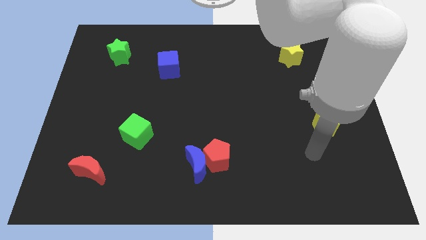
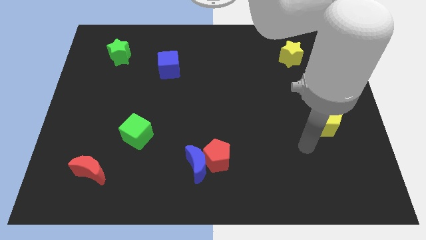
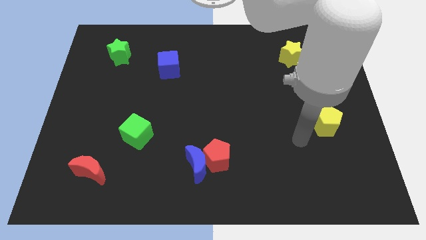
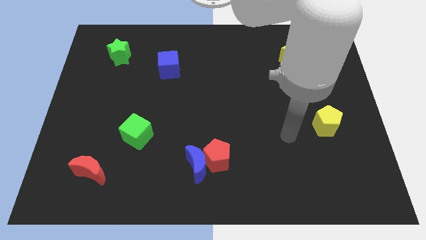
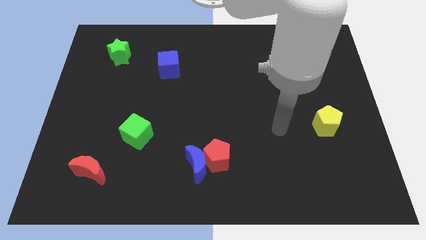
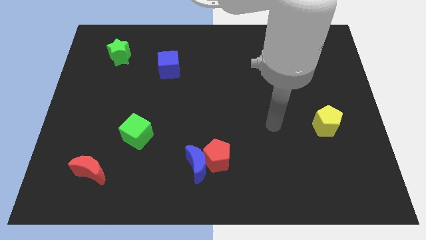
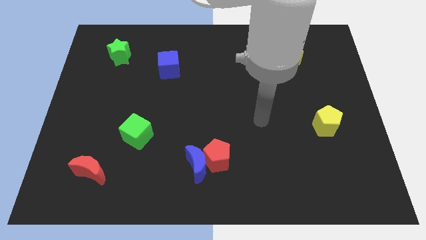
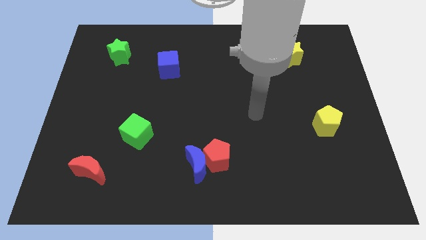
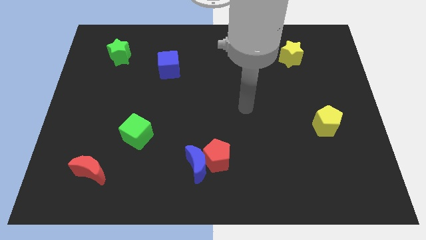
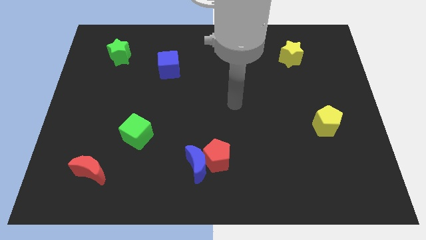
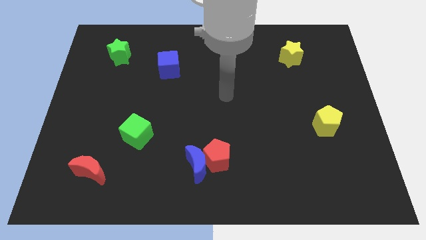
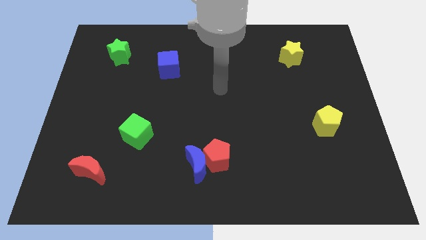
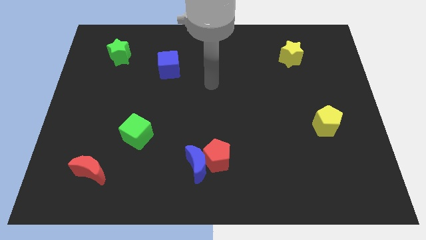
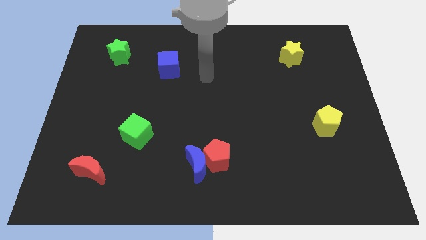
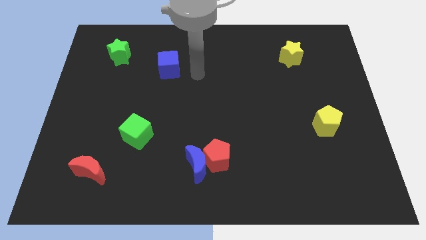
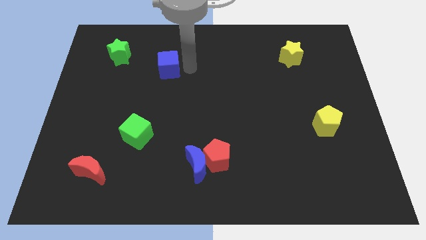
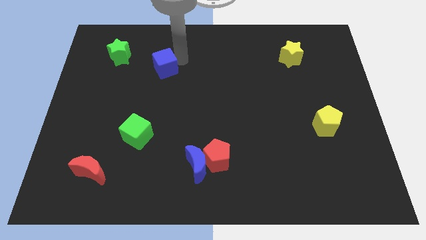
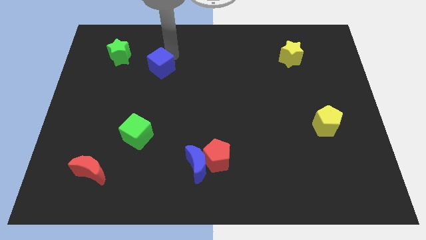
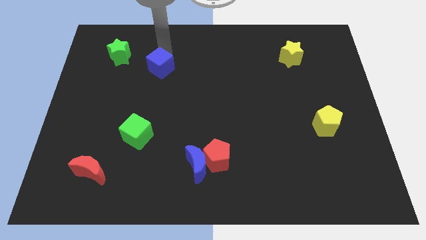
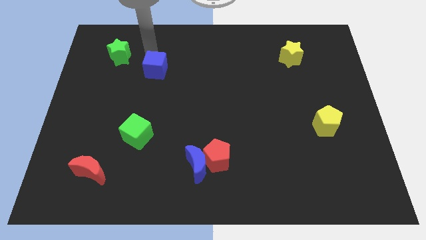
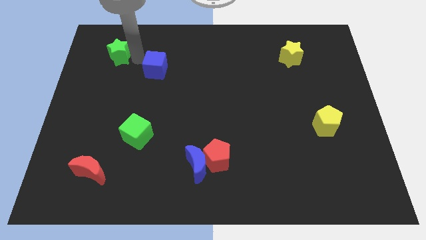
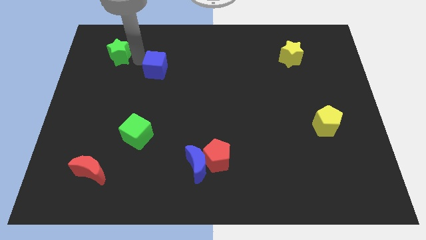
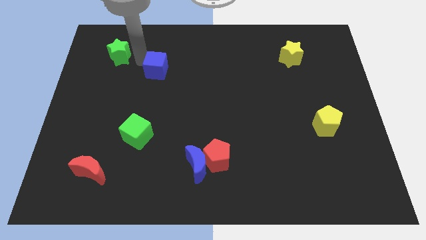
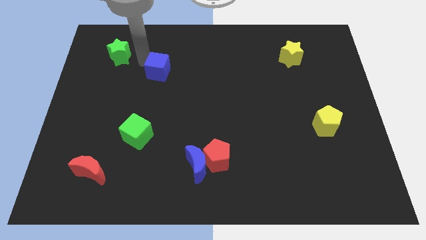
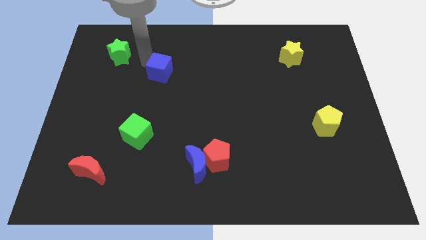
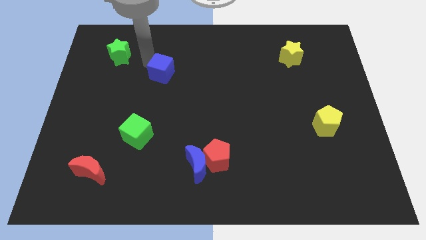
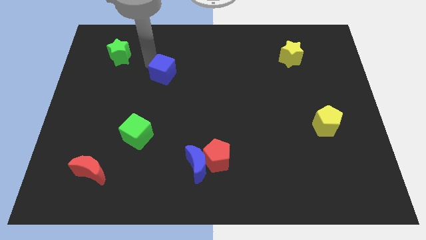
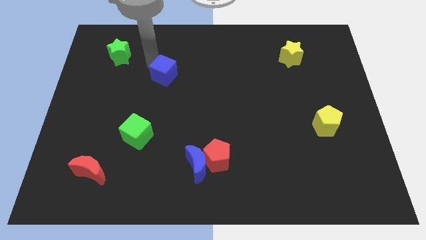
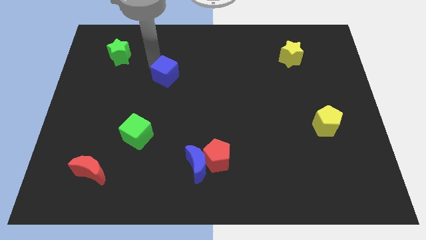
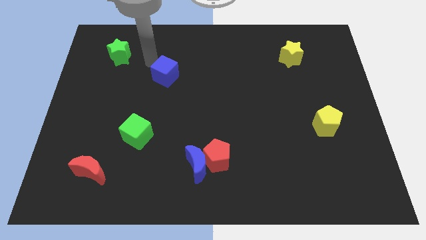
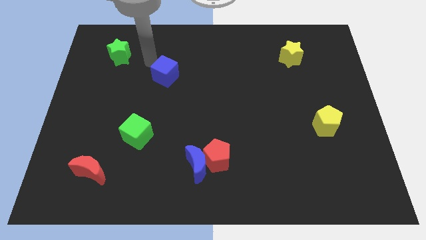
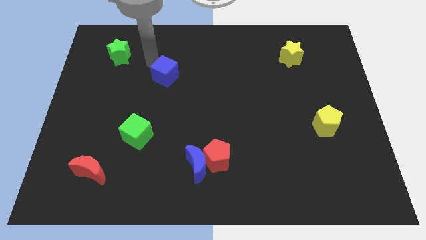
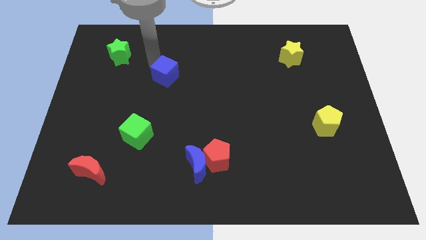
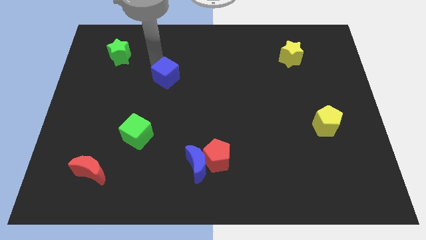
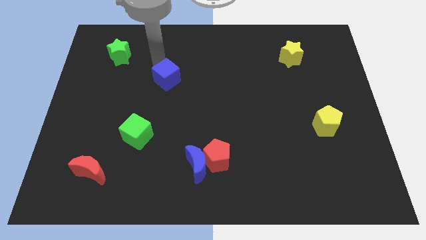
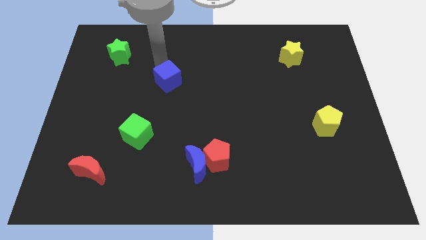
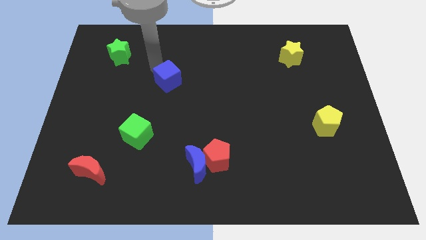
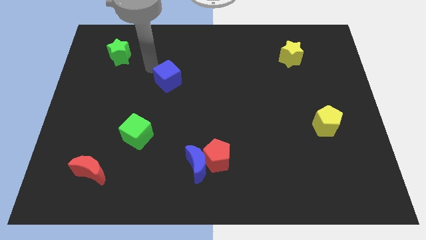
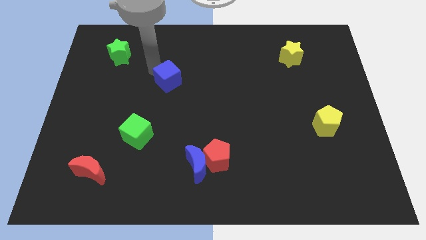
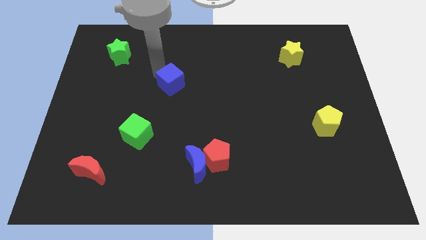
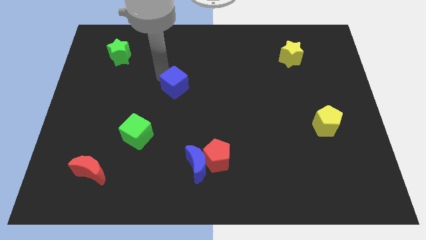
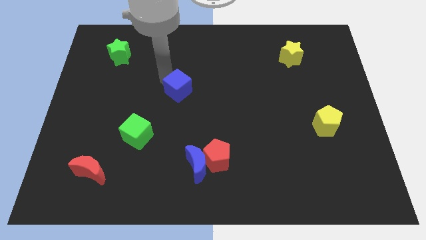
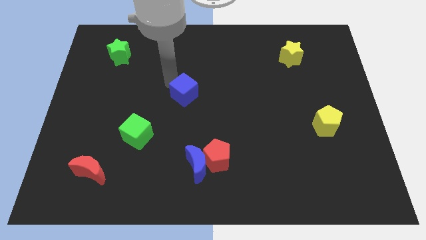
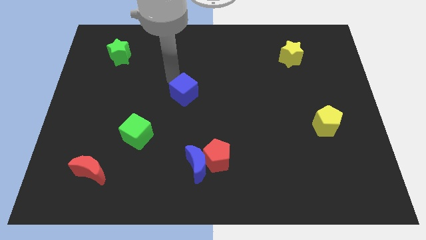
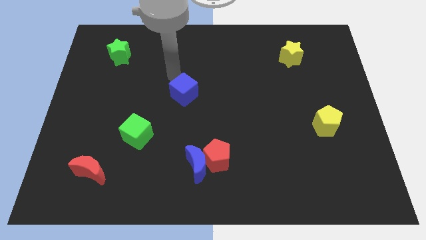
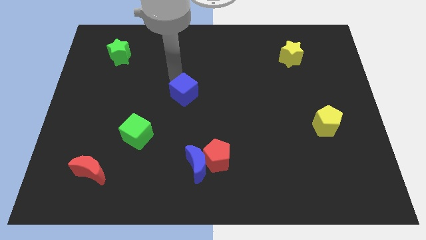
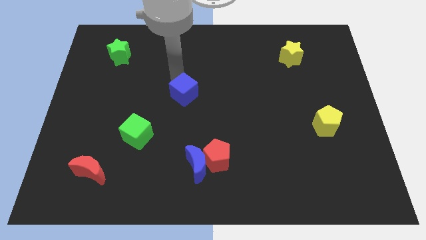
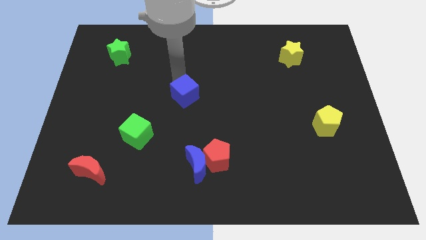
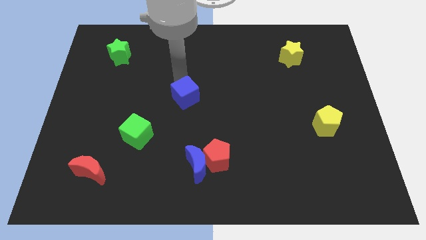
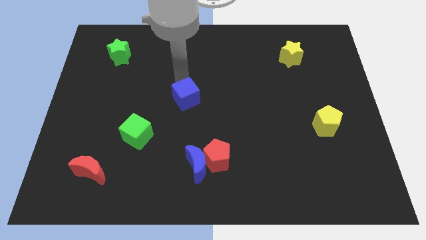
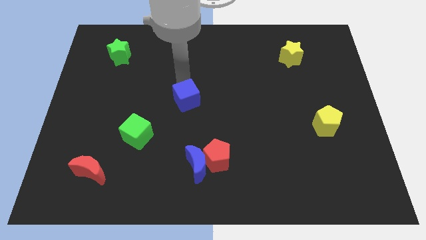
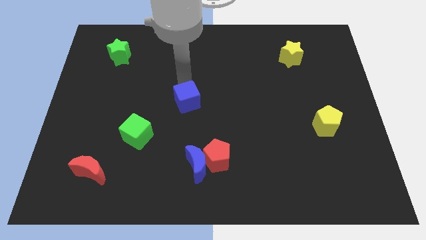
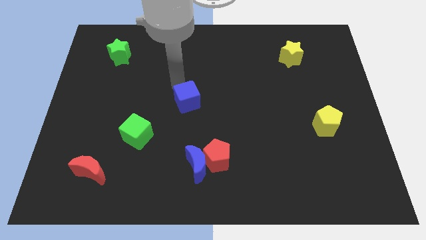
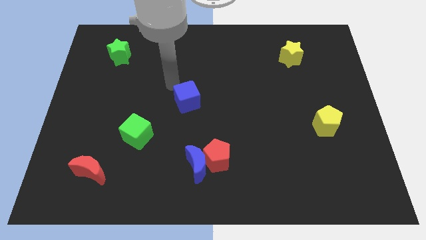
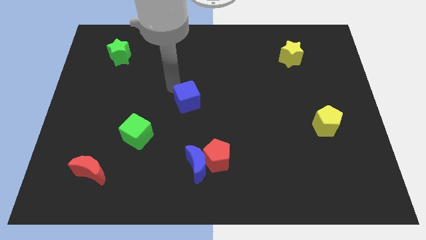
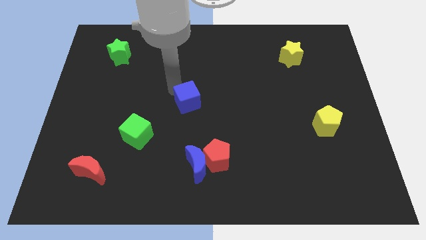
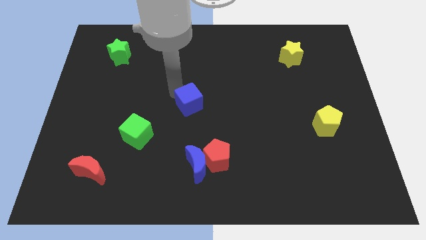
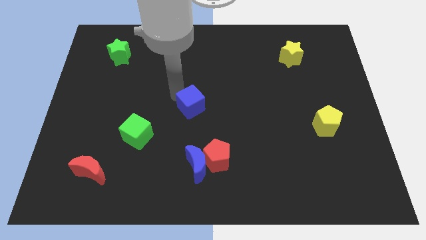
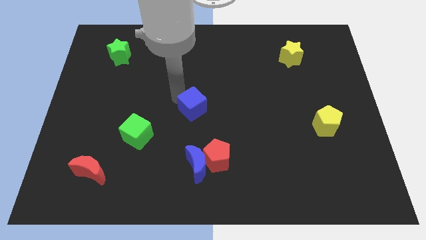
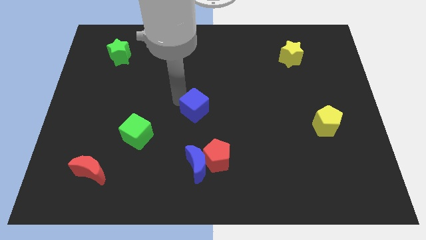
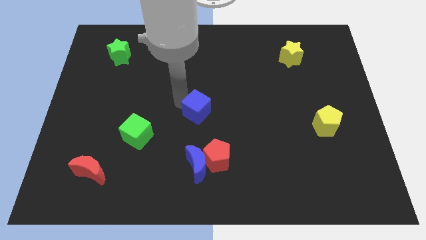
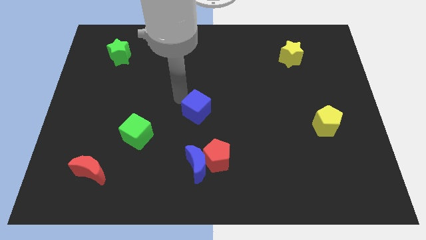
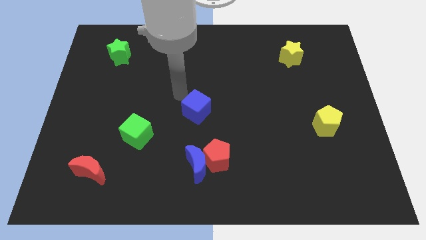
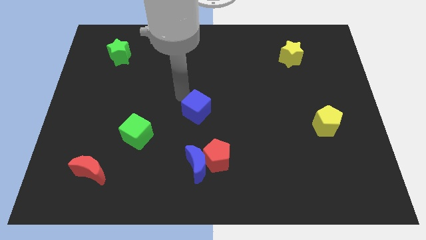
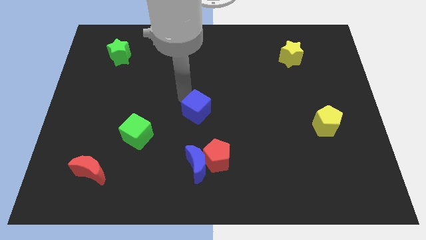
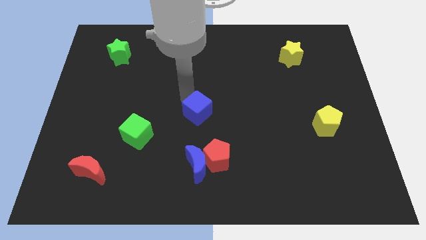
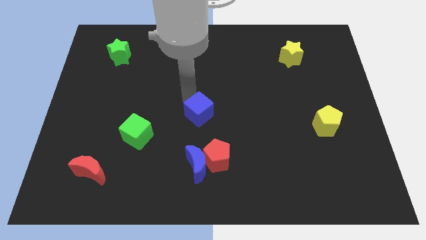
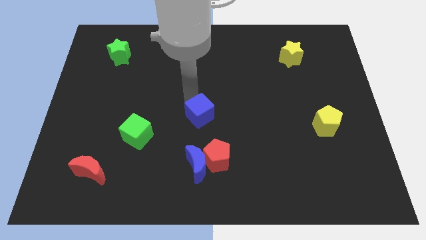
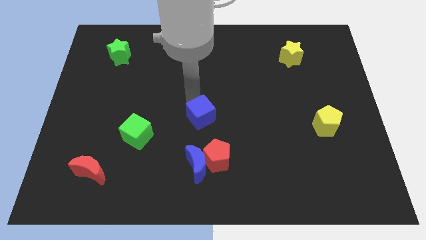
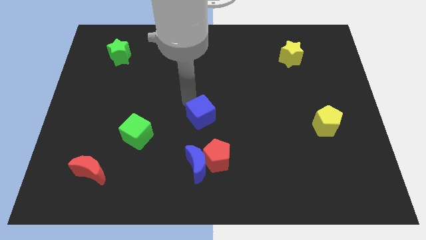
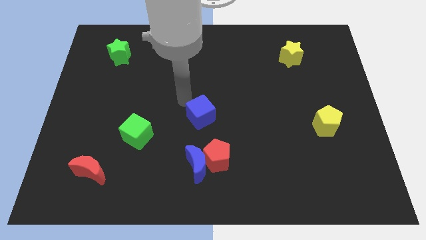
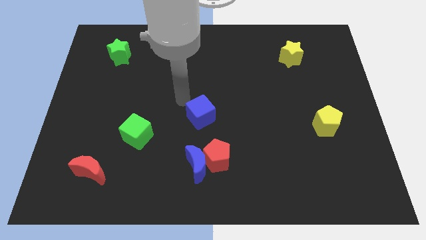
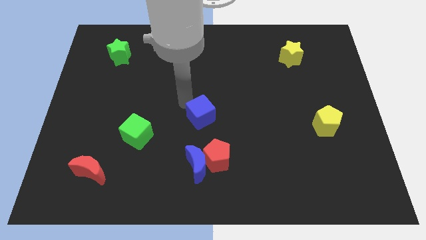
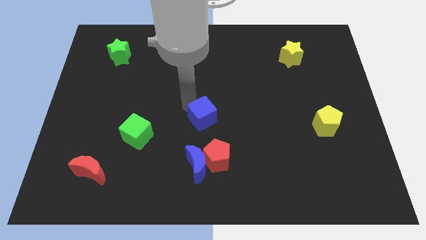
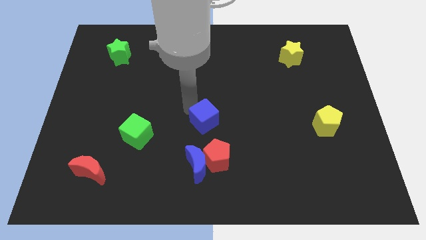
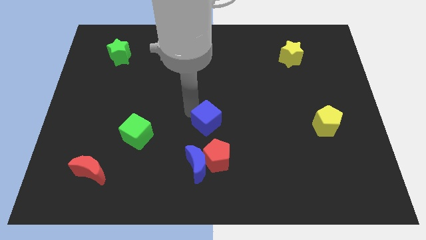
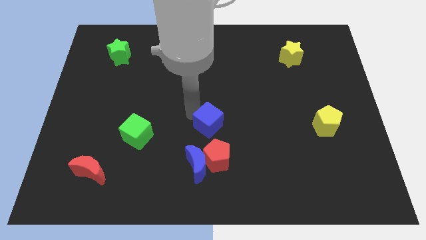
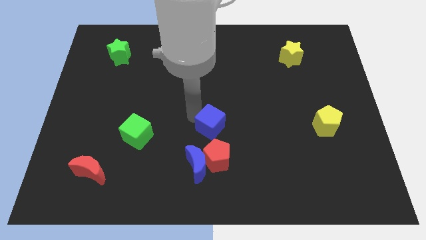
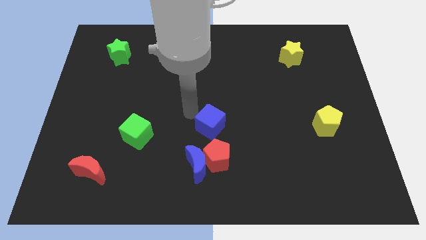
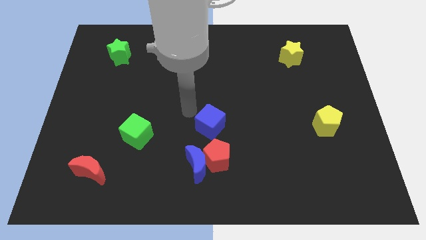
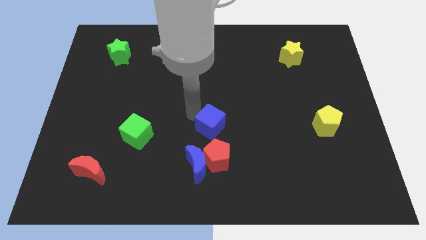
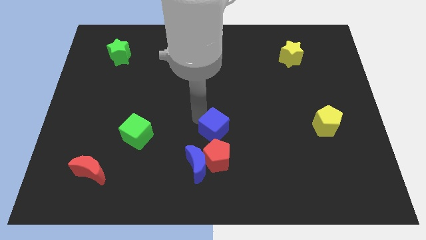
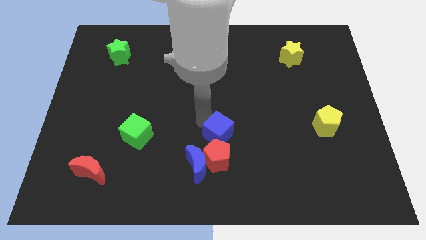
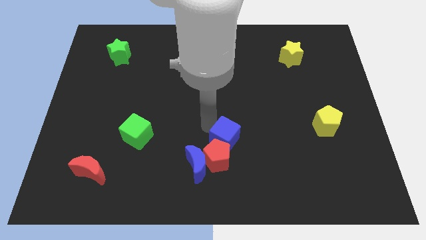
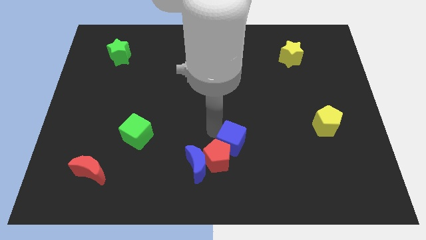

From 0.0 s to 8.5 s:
put the blue cube to the right of the red pentagon
